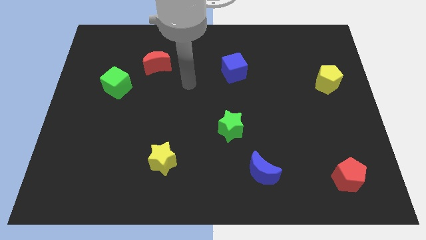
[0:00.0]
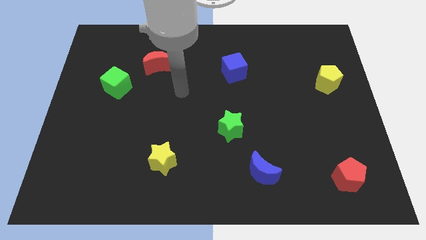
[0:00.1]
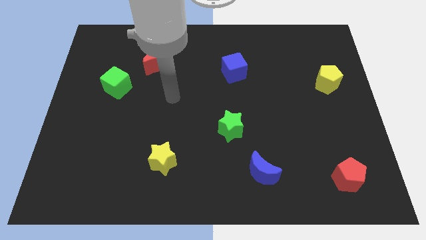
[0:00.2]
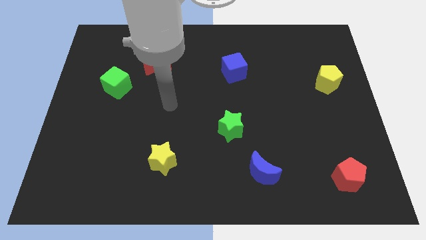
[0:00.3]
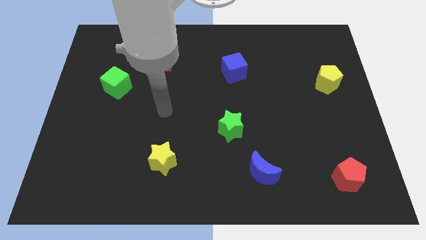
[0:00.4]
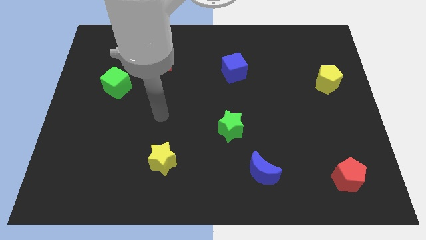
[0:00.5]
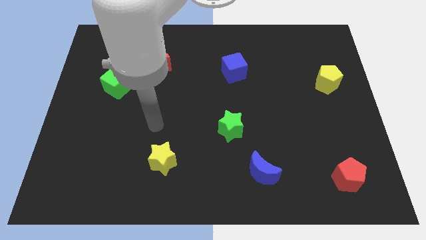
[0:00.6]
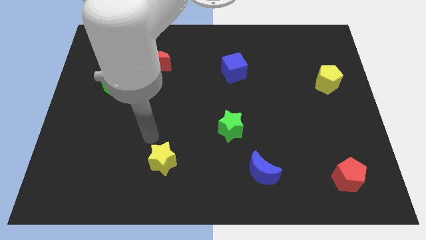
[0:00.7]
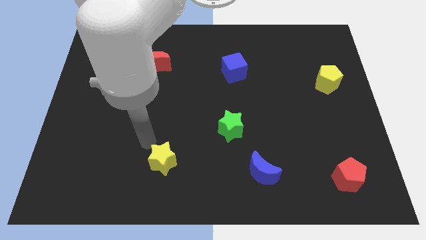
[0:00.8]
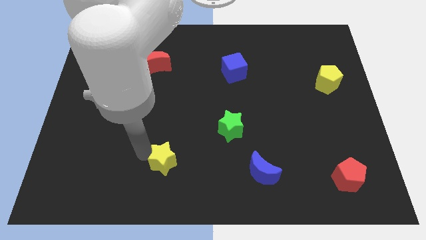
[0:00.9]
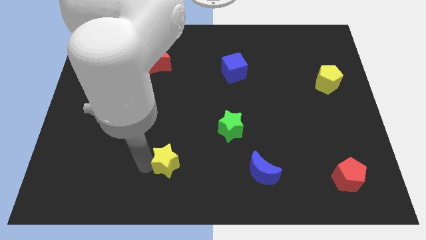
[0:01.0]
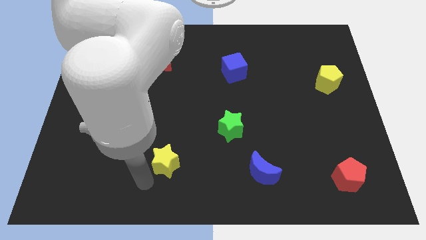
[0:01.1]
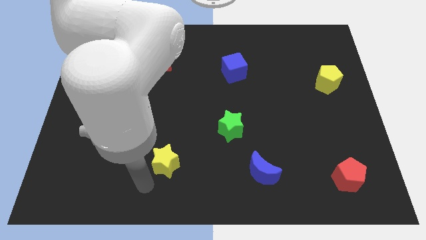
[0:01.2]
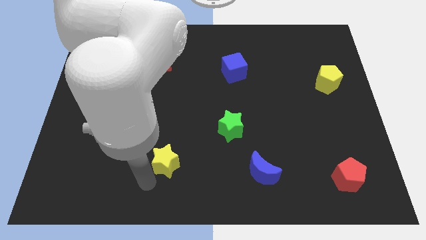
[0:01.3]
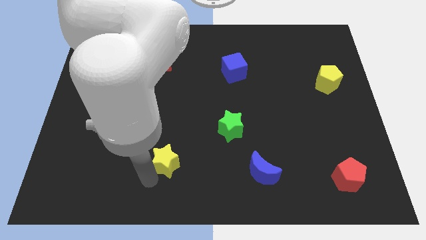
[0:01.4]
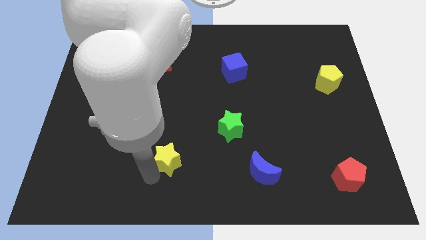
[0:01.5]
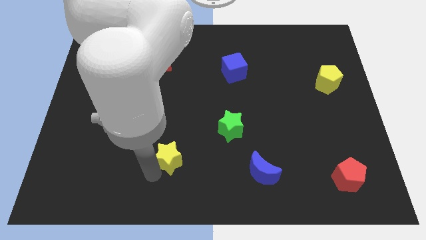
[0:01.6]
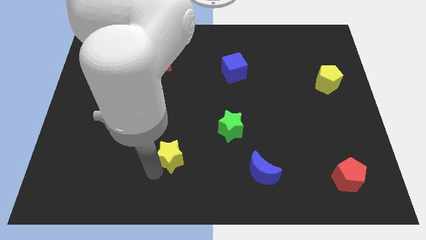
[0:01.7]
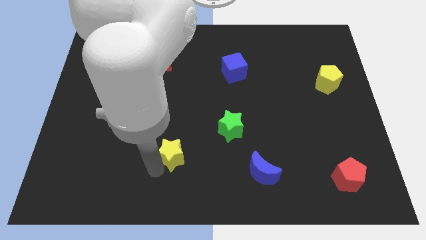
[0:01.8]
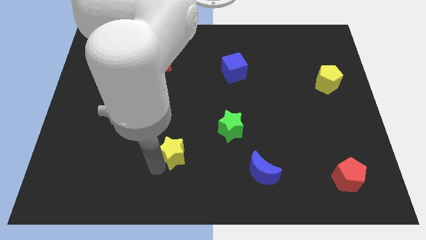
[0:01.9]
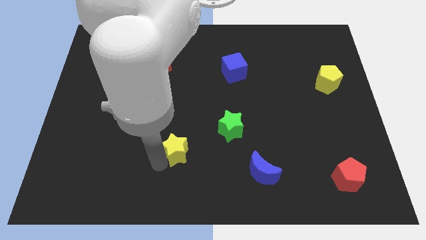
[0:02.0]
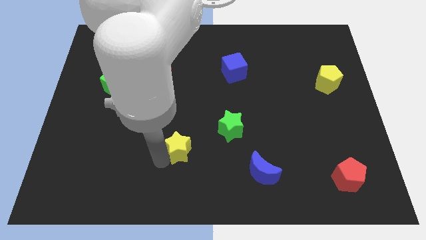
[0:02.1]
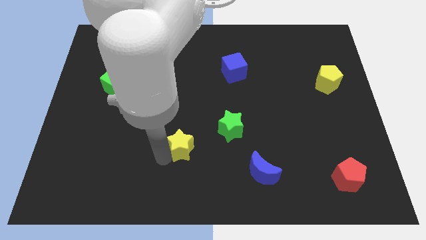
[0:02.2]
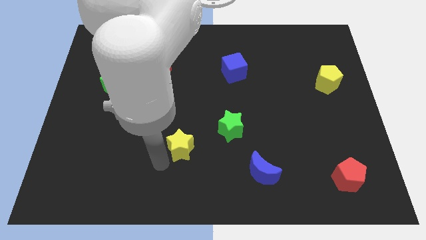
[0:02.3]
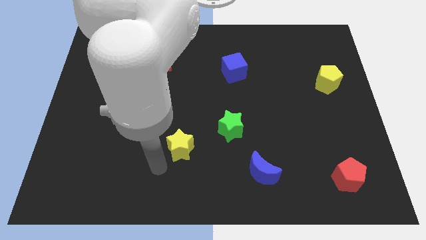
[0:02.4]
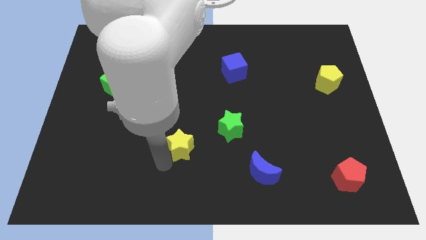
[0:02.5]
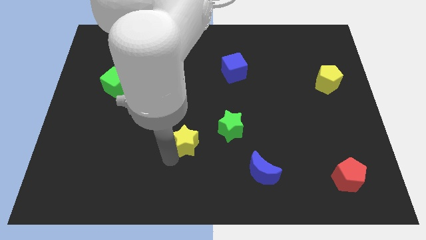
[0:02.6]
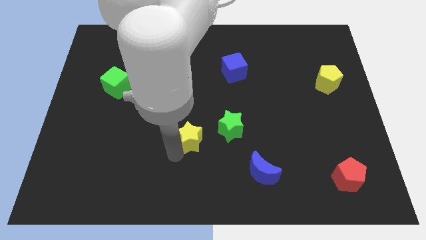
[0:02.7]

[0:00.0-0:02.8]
slightly push the yellow star upwards and then to the right

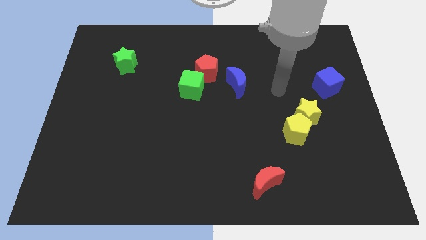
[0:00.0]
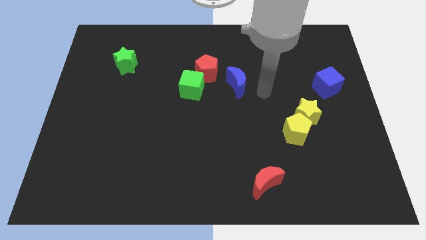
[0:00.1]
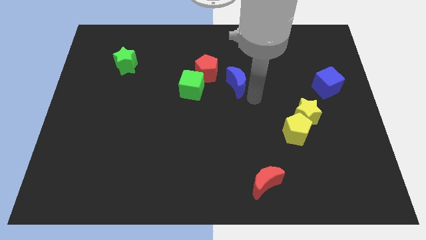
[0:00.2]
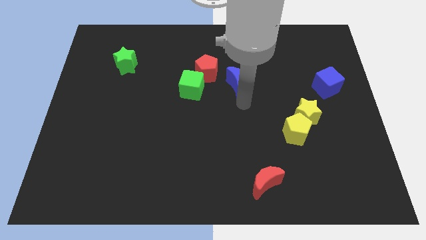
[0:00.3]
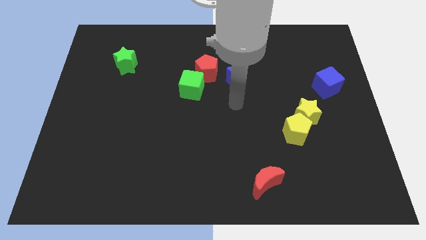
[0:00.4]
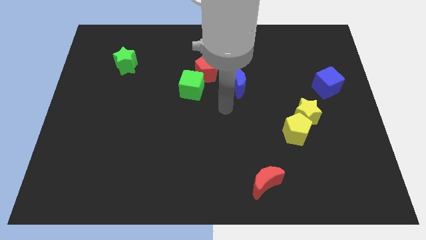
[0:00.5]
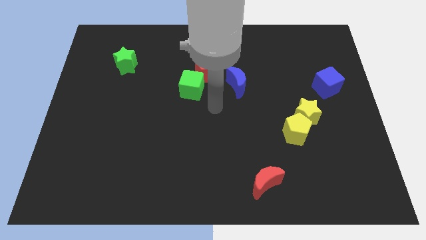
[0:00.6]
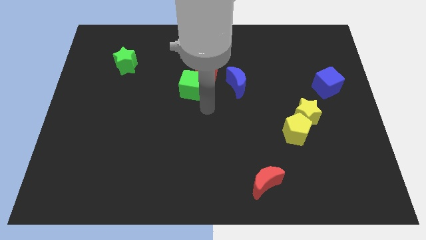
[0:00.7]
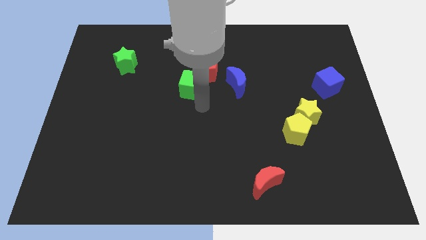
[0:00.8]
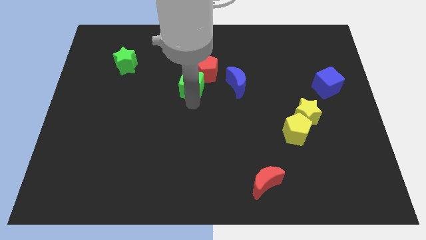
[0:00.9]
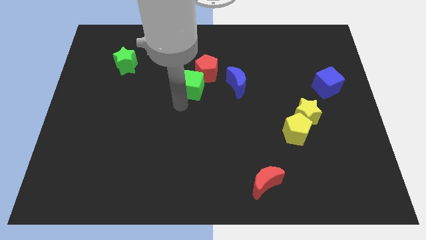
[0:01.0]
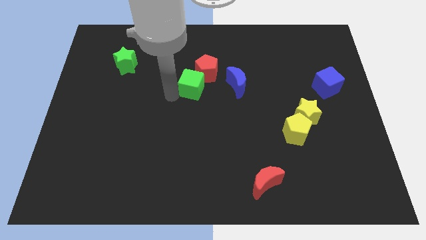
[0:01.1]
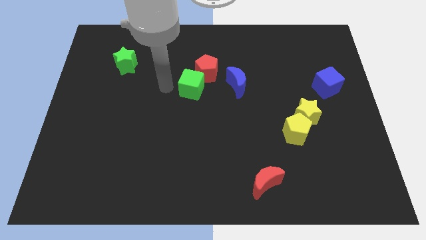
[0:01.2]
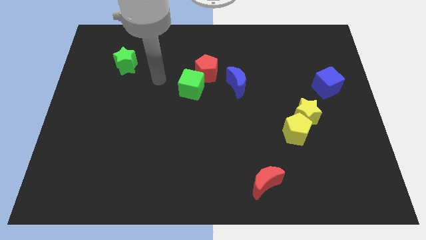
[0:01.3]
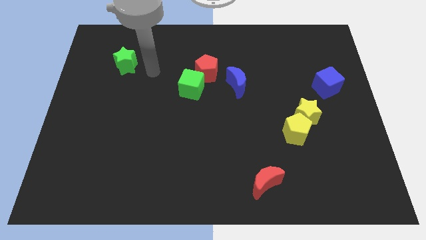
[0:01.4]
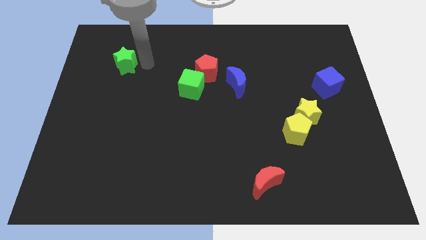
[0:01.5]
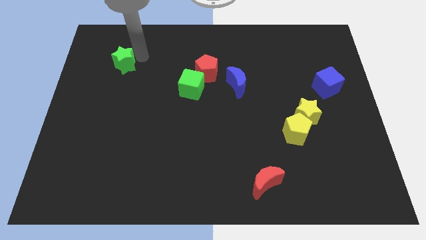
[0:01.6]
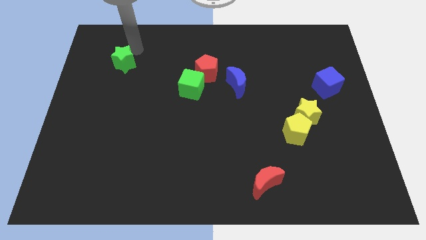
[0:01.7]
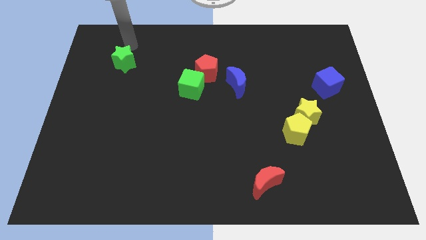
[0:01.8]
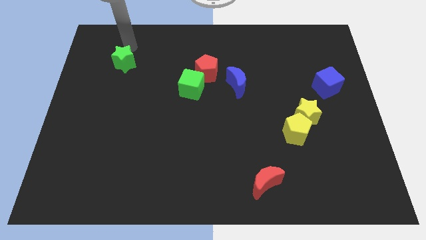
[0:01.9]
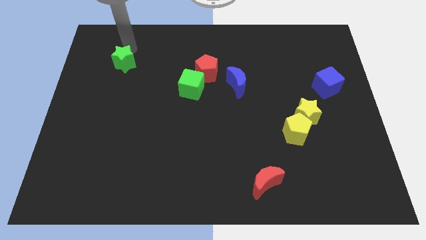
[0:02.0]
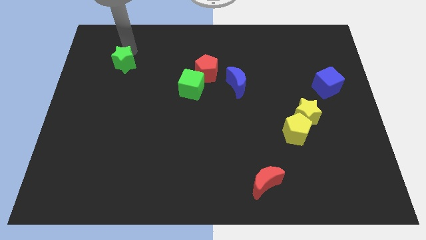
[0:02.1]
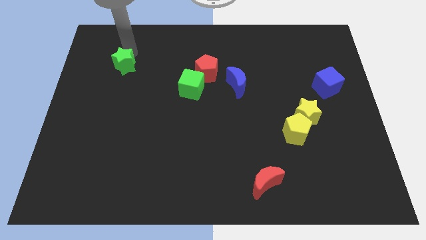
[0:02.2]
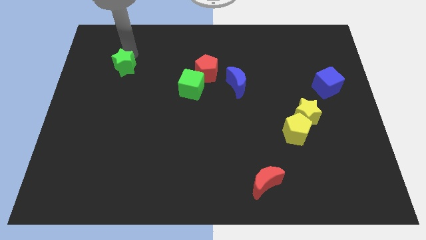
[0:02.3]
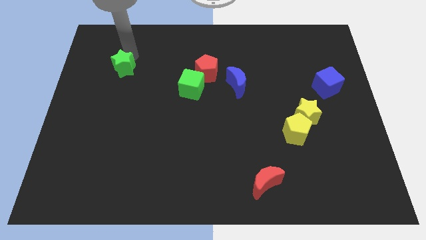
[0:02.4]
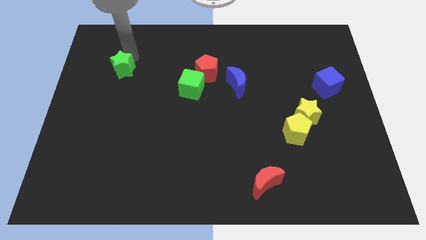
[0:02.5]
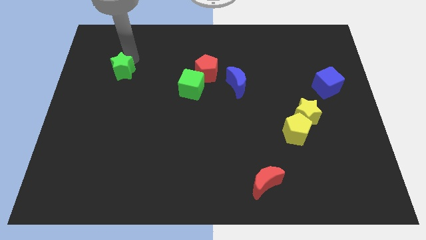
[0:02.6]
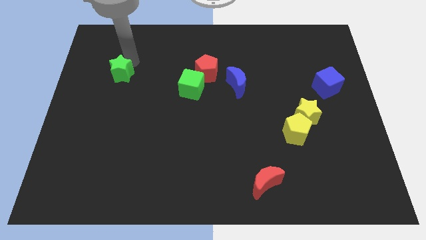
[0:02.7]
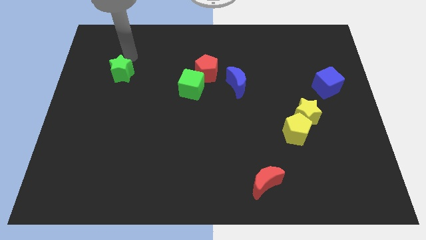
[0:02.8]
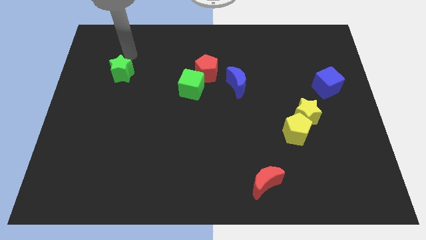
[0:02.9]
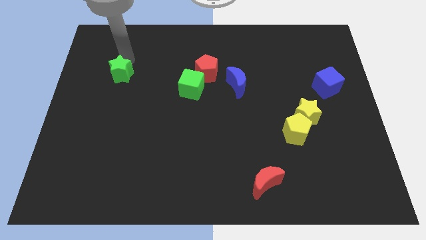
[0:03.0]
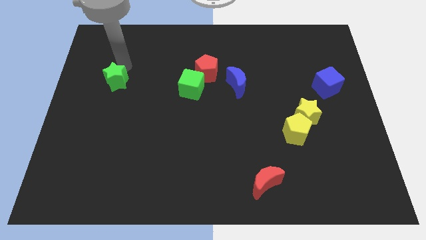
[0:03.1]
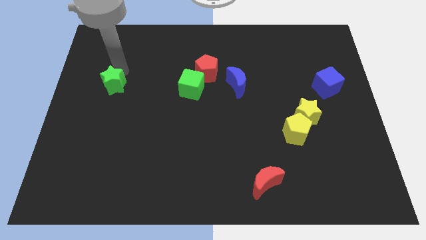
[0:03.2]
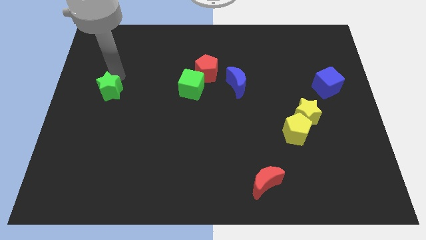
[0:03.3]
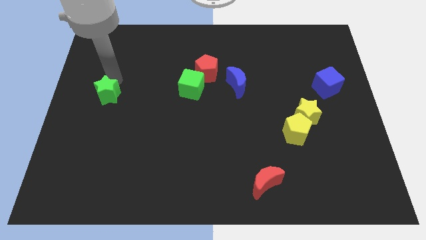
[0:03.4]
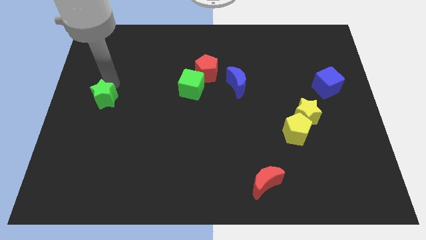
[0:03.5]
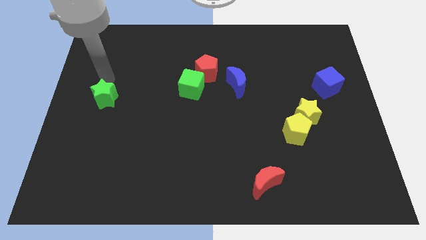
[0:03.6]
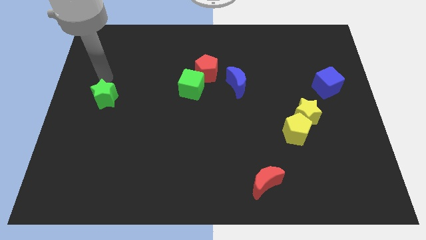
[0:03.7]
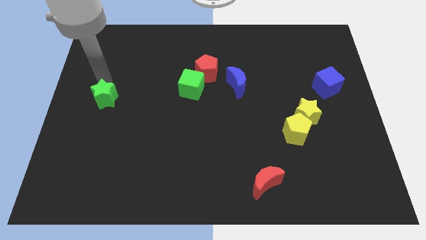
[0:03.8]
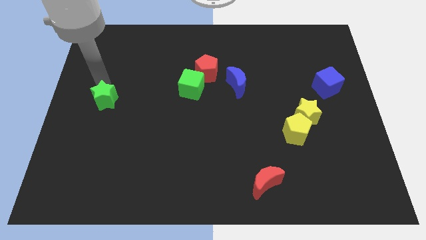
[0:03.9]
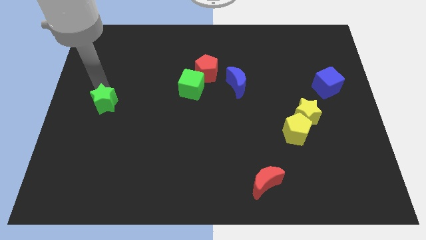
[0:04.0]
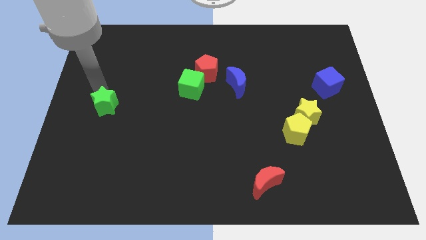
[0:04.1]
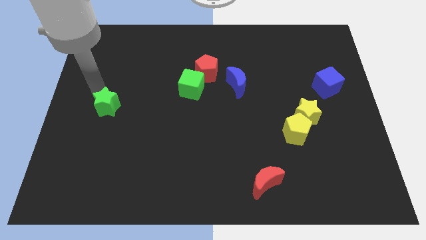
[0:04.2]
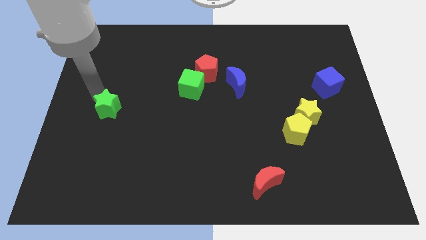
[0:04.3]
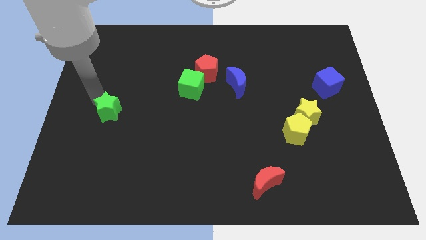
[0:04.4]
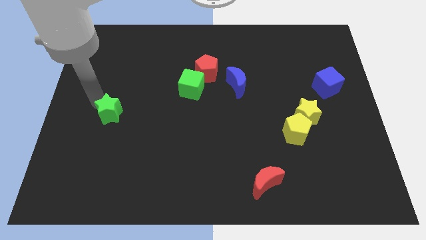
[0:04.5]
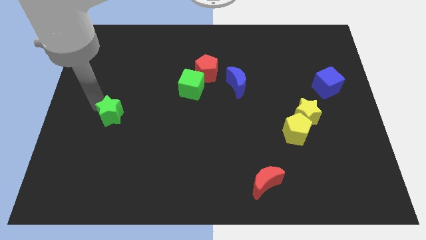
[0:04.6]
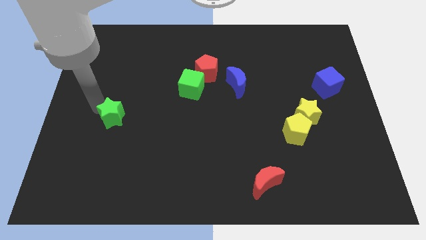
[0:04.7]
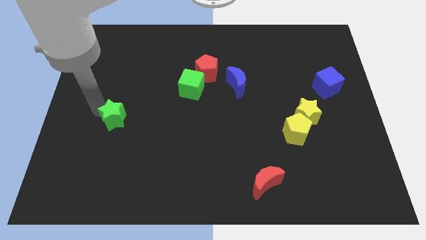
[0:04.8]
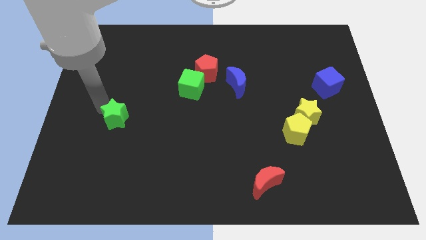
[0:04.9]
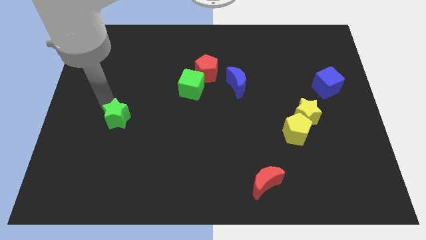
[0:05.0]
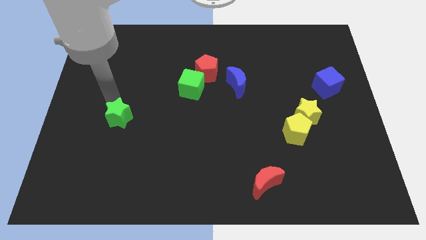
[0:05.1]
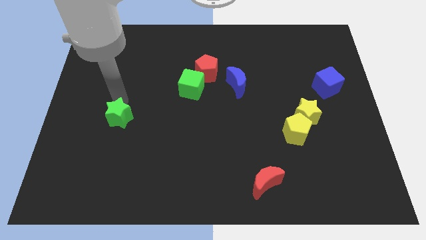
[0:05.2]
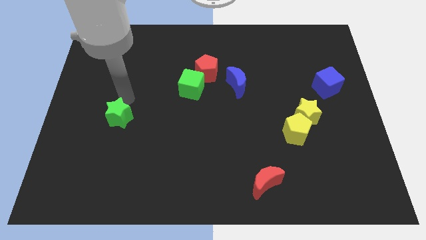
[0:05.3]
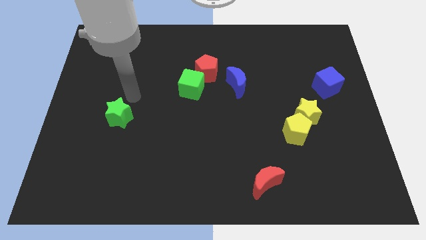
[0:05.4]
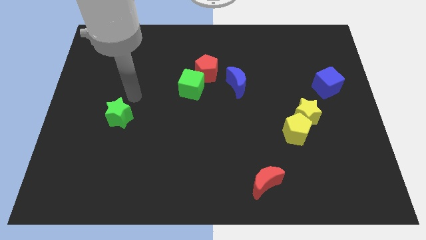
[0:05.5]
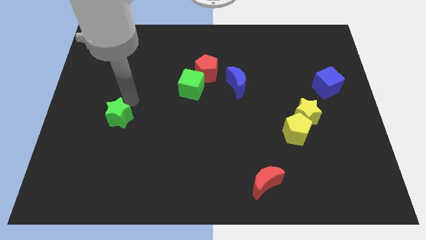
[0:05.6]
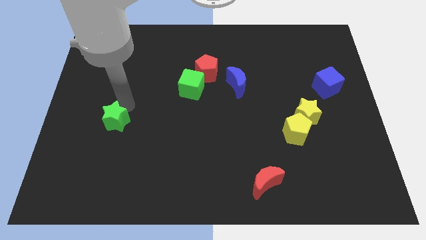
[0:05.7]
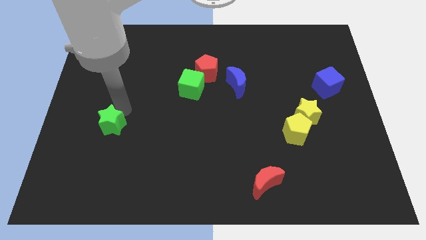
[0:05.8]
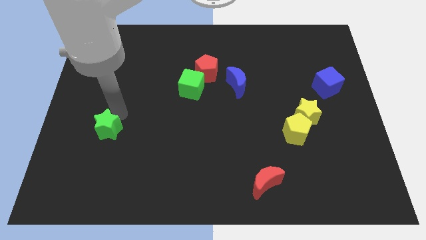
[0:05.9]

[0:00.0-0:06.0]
slide the green star downwards
